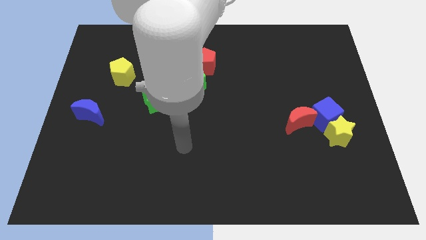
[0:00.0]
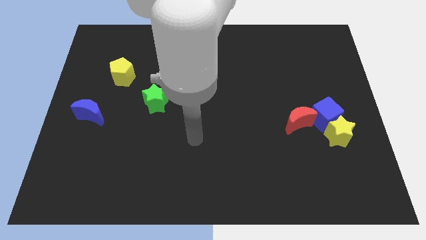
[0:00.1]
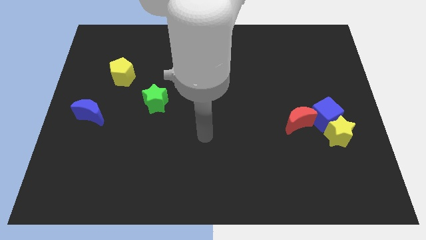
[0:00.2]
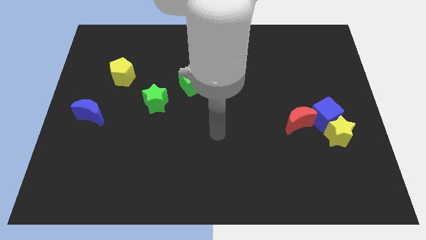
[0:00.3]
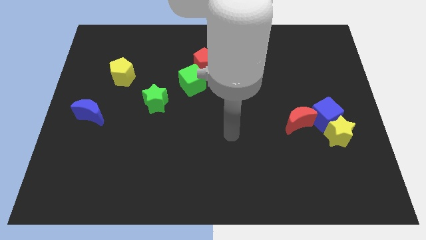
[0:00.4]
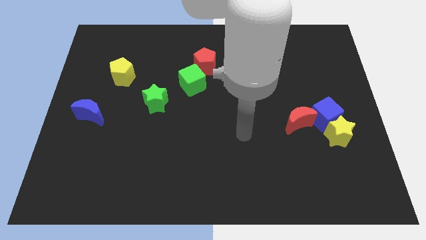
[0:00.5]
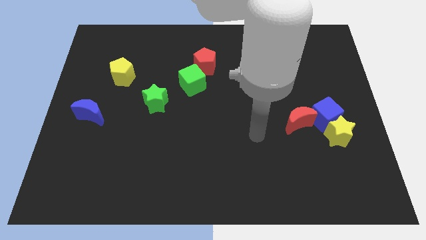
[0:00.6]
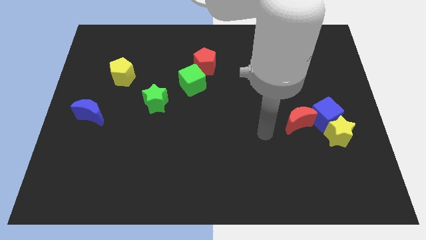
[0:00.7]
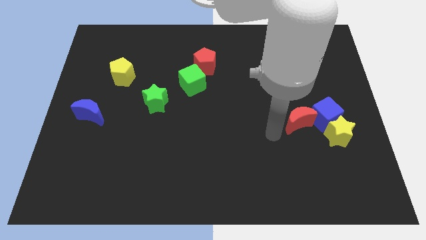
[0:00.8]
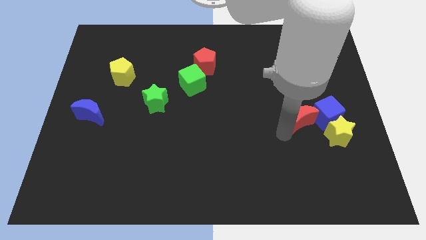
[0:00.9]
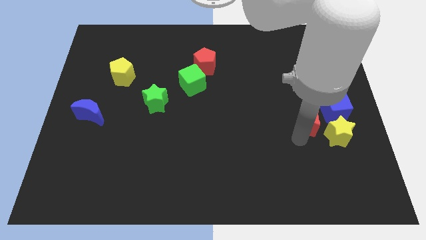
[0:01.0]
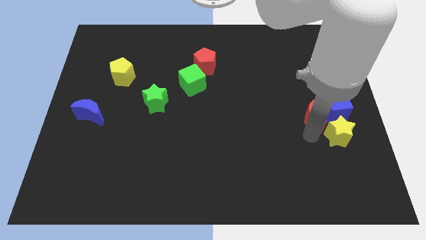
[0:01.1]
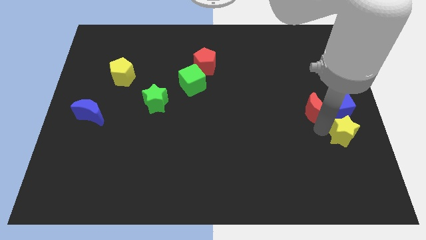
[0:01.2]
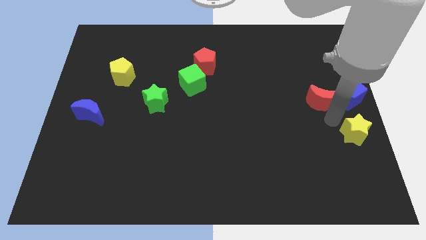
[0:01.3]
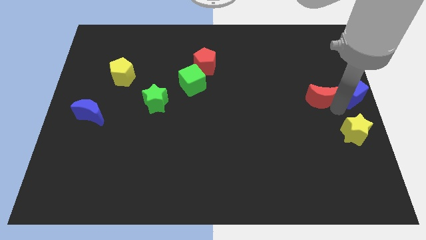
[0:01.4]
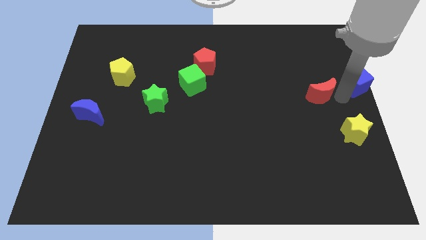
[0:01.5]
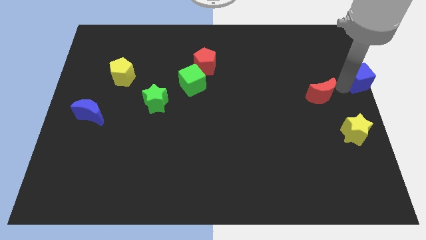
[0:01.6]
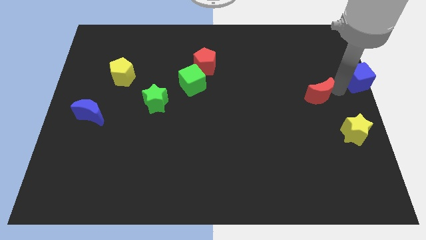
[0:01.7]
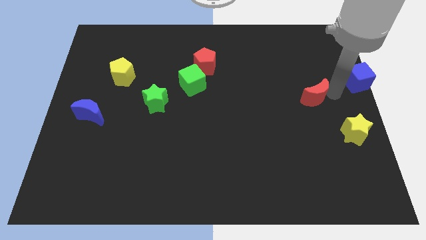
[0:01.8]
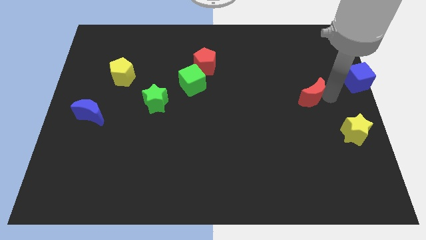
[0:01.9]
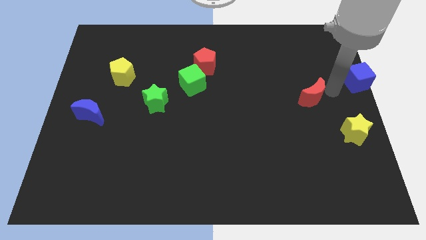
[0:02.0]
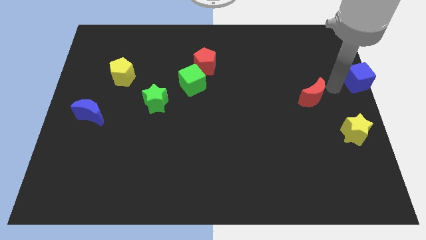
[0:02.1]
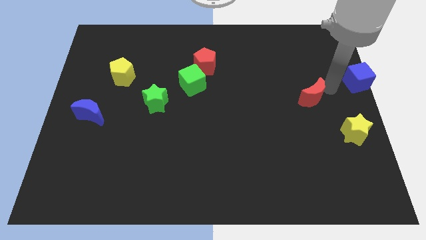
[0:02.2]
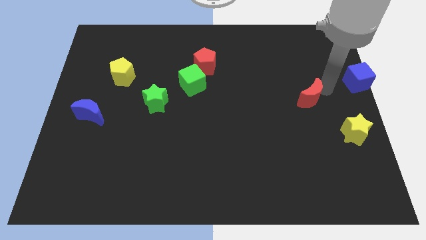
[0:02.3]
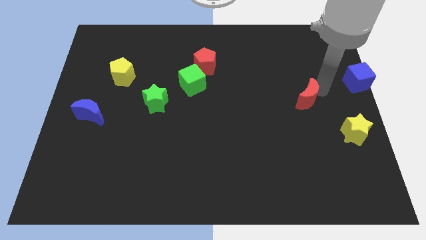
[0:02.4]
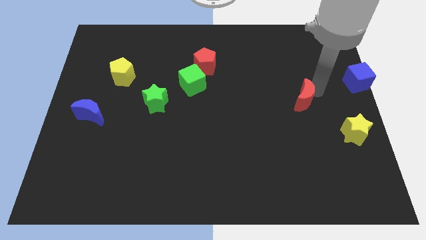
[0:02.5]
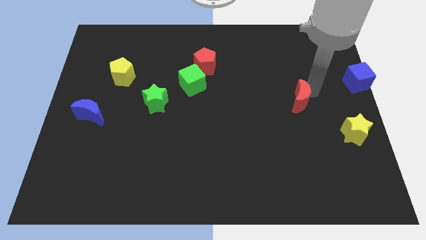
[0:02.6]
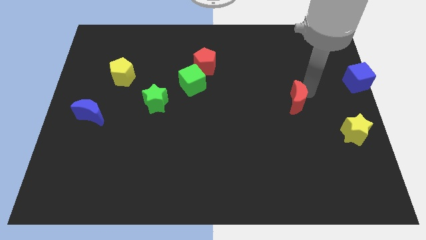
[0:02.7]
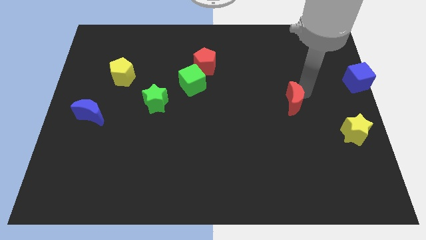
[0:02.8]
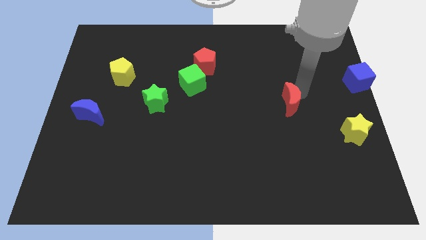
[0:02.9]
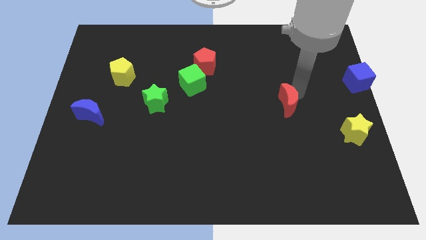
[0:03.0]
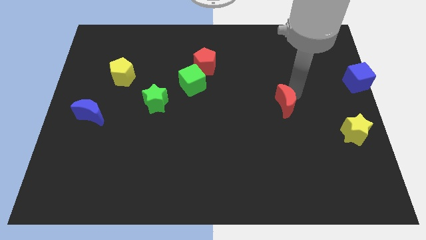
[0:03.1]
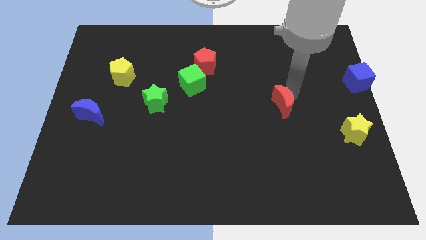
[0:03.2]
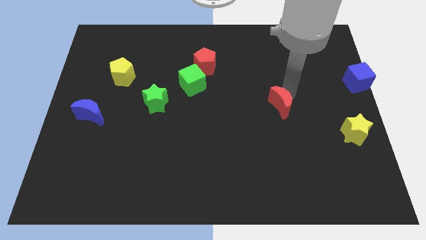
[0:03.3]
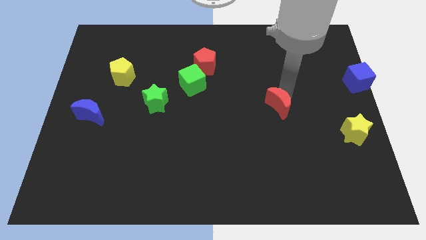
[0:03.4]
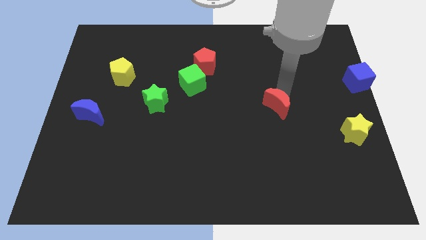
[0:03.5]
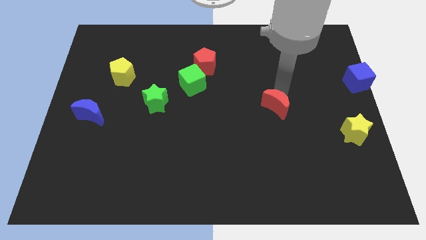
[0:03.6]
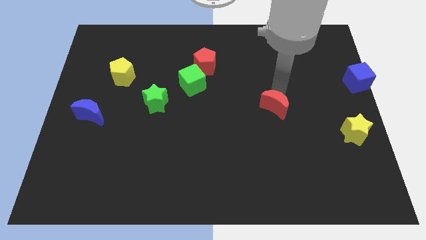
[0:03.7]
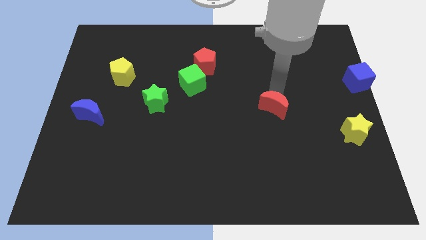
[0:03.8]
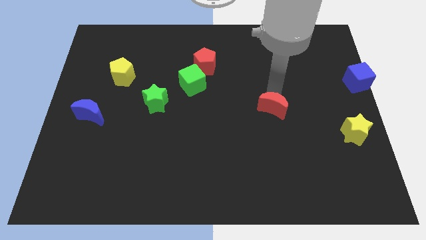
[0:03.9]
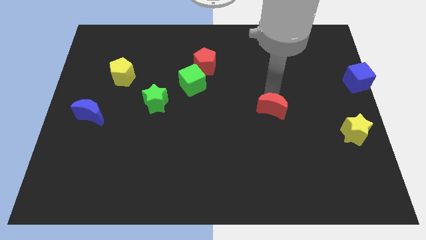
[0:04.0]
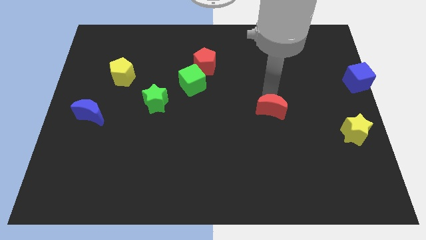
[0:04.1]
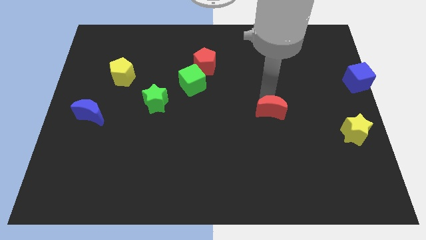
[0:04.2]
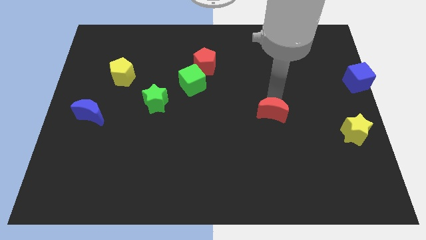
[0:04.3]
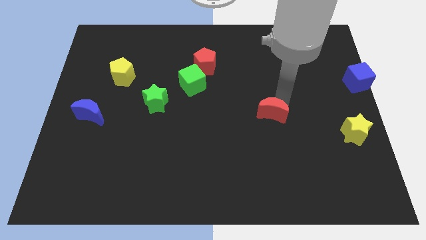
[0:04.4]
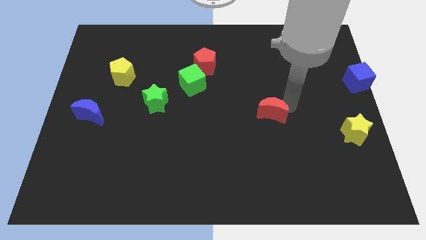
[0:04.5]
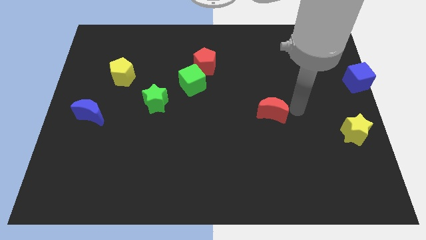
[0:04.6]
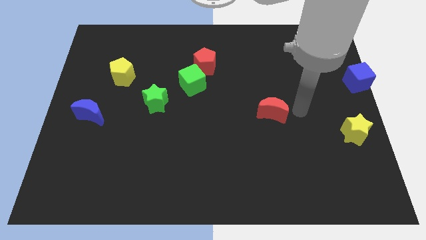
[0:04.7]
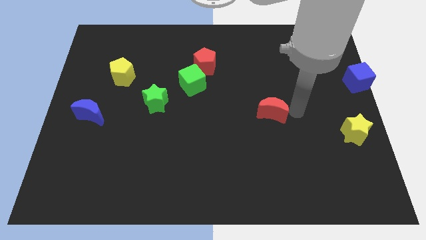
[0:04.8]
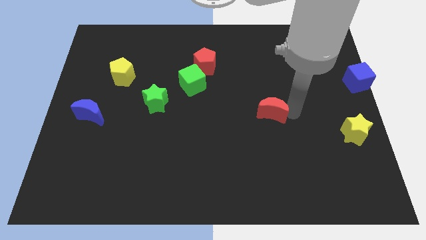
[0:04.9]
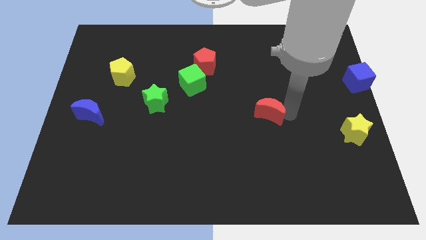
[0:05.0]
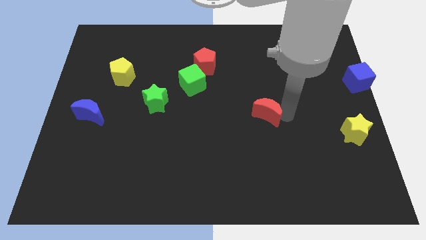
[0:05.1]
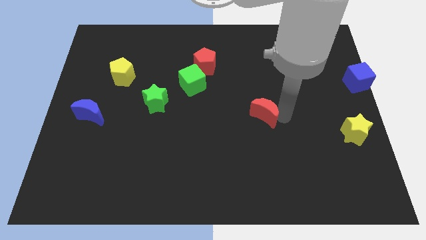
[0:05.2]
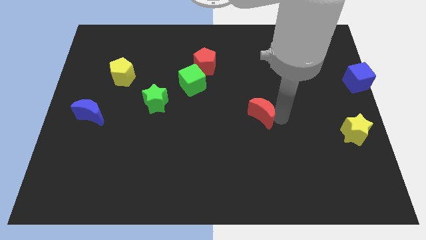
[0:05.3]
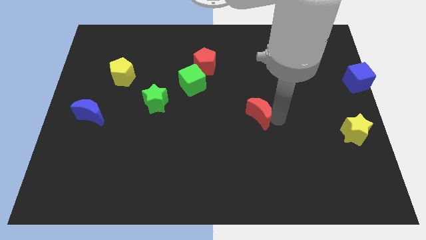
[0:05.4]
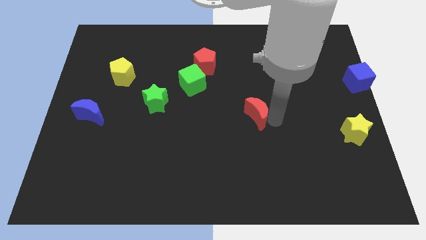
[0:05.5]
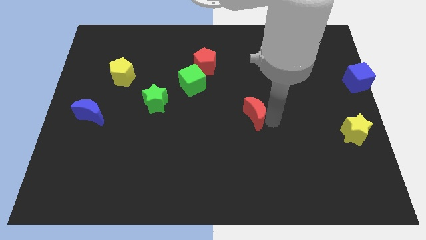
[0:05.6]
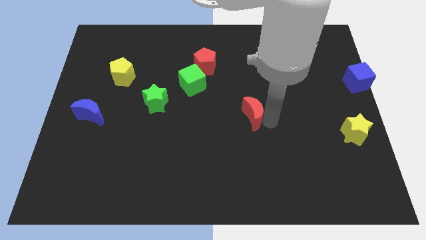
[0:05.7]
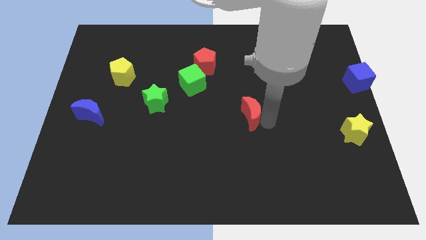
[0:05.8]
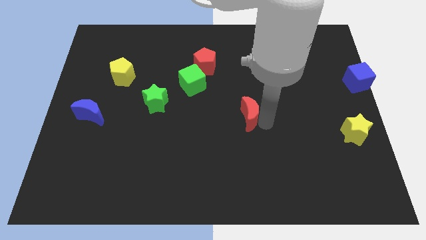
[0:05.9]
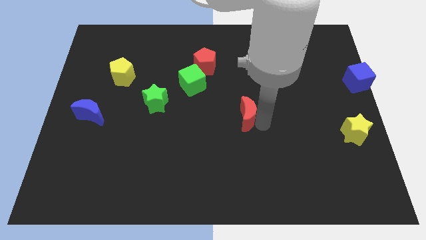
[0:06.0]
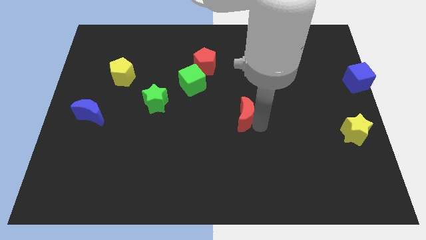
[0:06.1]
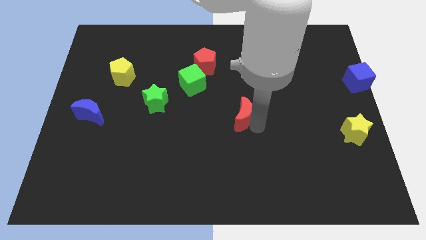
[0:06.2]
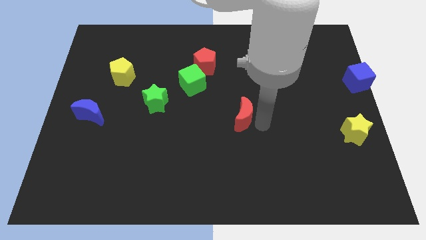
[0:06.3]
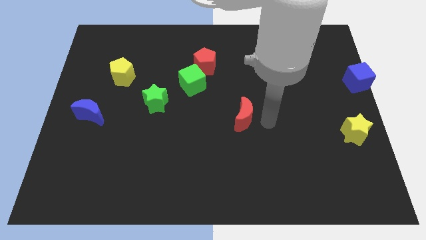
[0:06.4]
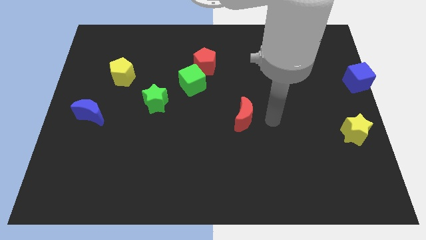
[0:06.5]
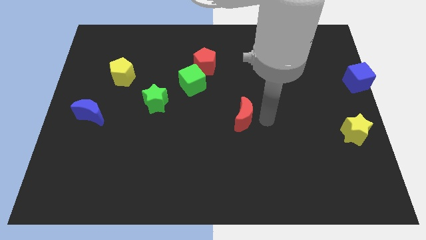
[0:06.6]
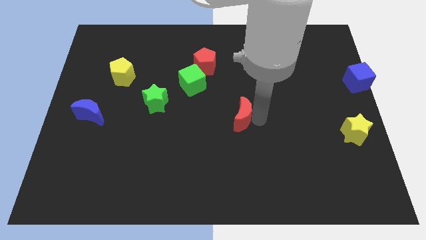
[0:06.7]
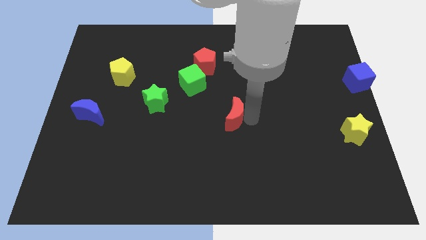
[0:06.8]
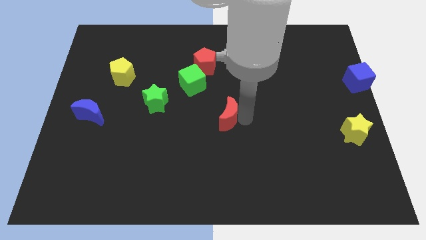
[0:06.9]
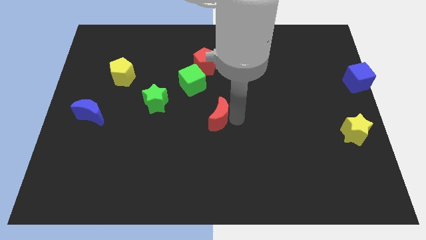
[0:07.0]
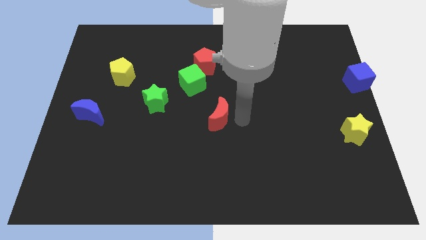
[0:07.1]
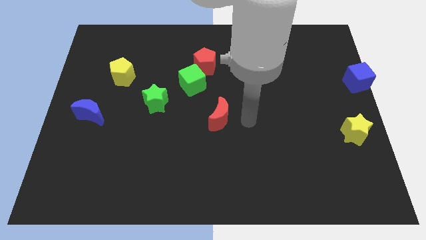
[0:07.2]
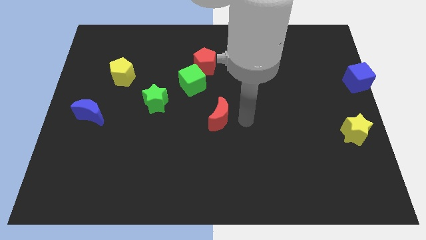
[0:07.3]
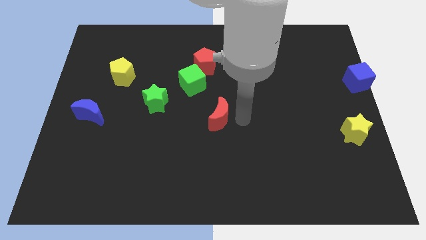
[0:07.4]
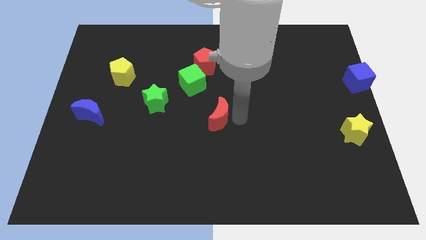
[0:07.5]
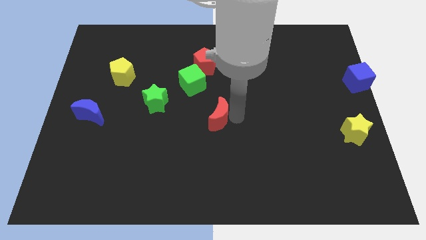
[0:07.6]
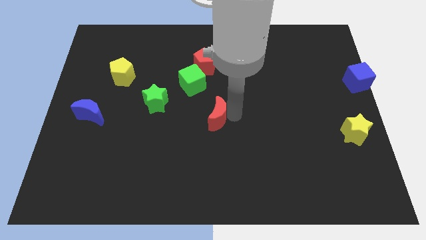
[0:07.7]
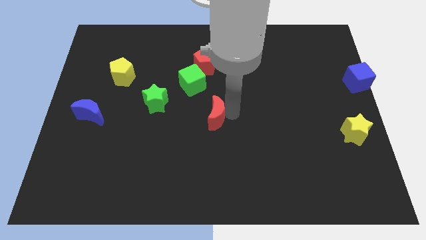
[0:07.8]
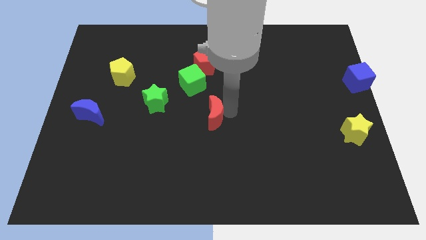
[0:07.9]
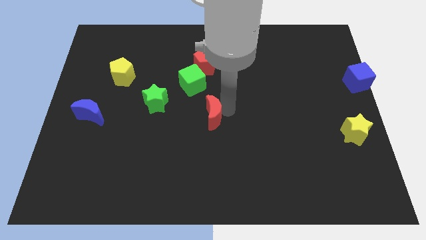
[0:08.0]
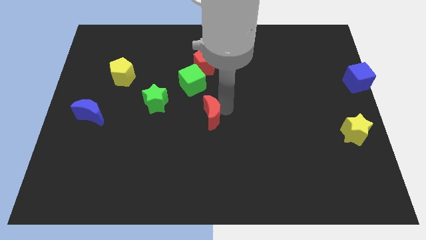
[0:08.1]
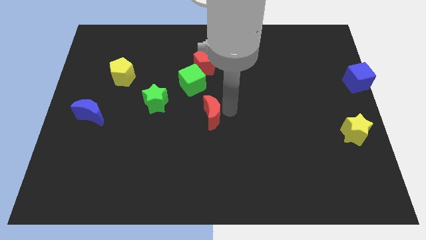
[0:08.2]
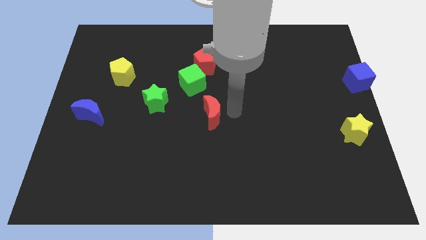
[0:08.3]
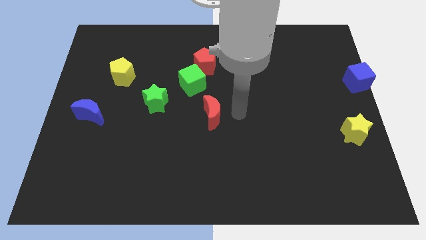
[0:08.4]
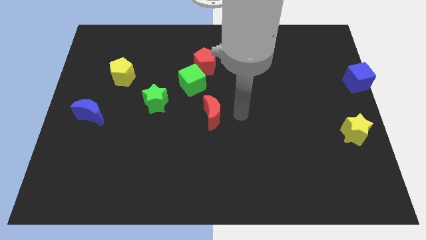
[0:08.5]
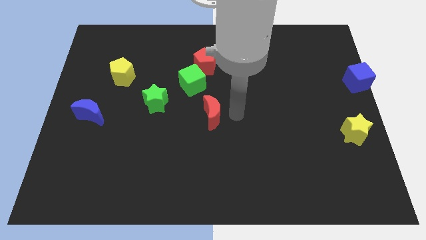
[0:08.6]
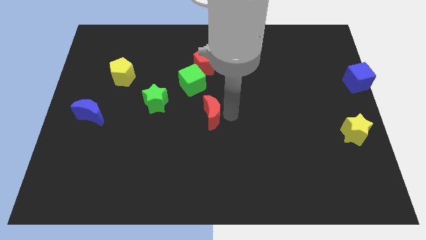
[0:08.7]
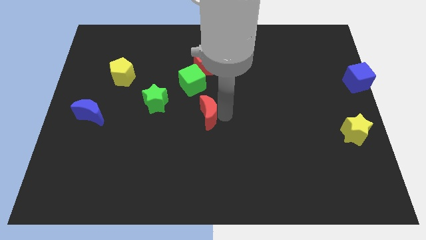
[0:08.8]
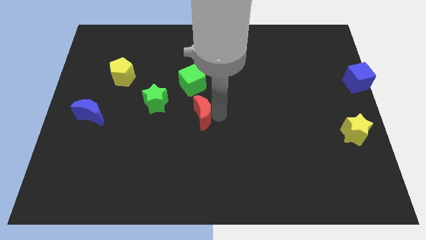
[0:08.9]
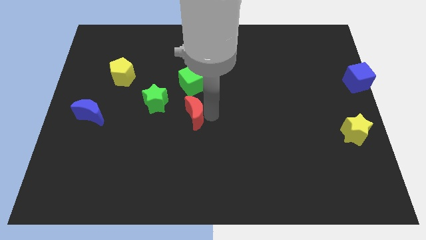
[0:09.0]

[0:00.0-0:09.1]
push the red moon to the bottom right of the green star
